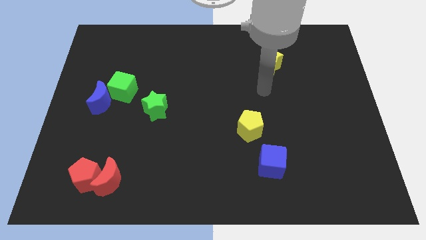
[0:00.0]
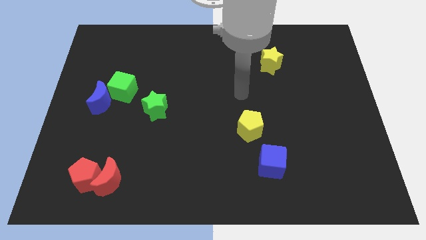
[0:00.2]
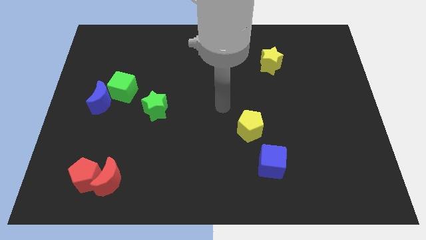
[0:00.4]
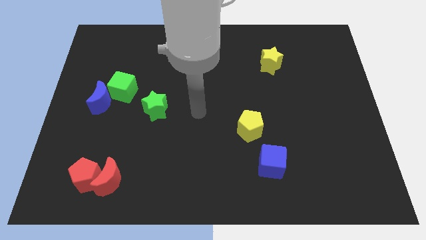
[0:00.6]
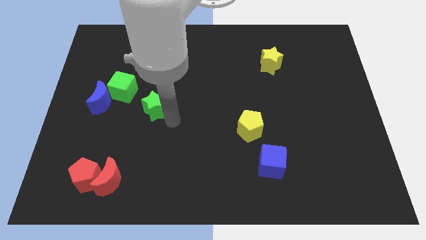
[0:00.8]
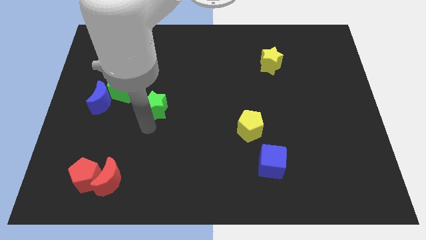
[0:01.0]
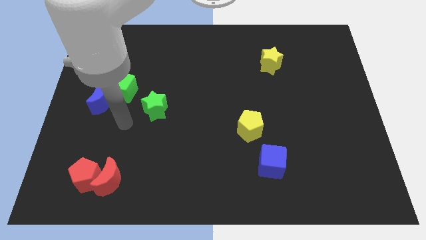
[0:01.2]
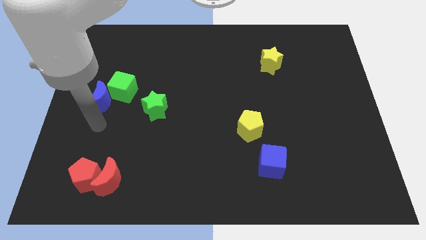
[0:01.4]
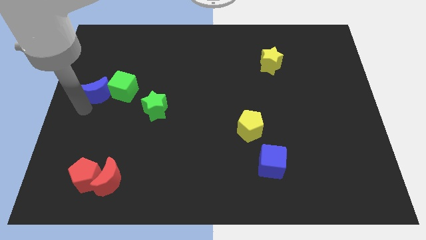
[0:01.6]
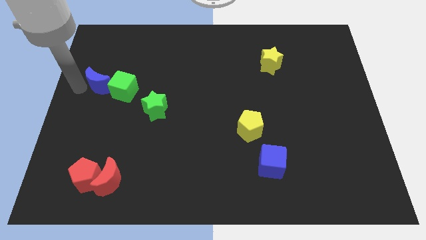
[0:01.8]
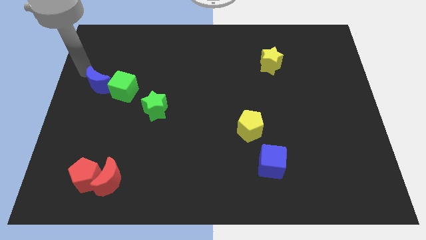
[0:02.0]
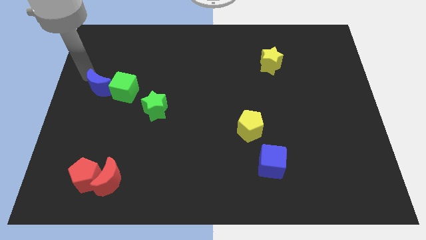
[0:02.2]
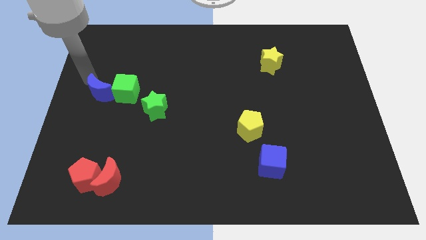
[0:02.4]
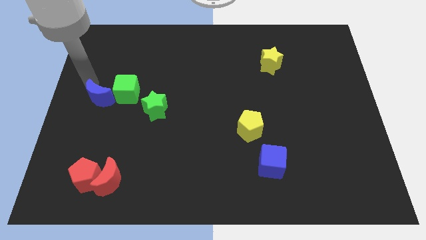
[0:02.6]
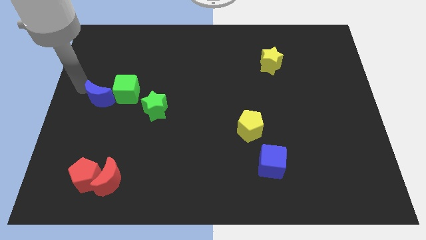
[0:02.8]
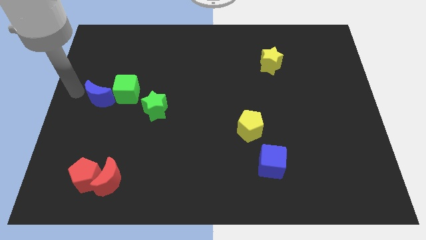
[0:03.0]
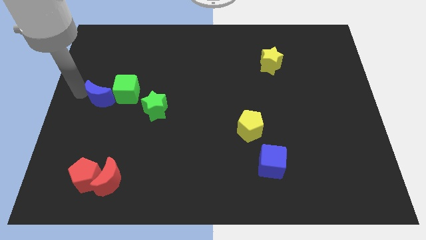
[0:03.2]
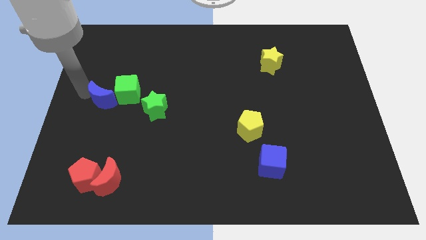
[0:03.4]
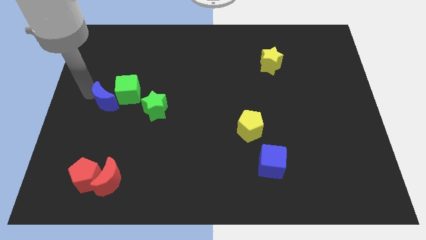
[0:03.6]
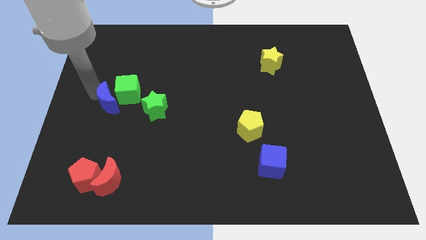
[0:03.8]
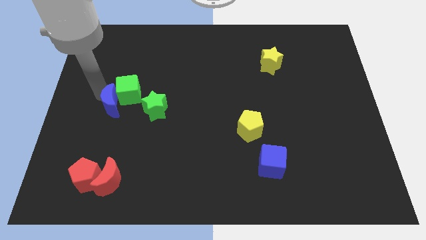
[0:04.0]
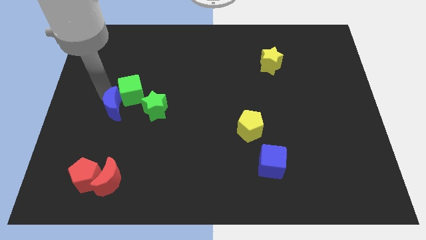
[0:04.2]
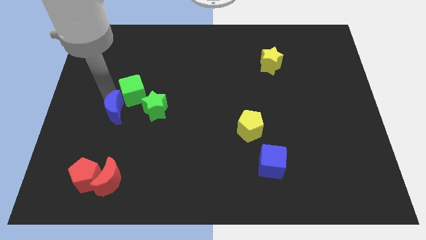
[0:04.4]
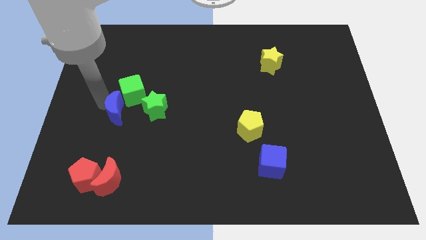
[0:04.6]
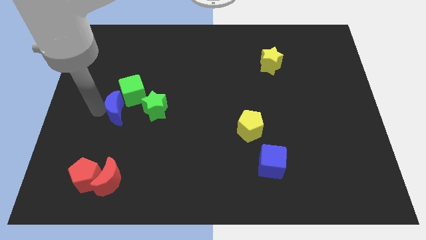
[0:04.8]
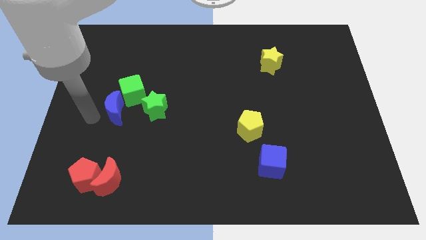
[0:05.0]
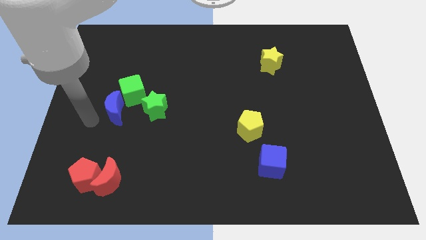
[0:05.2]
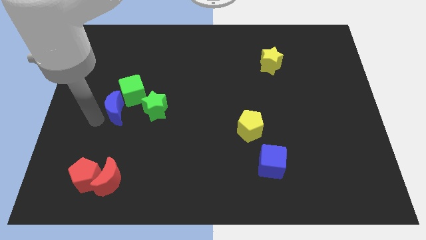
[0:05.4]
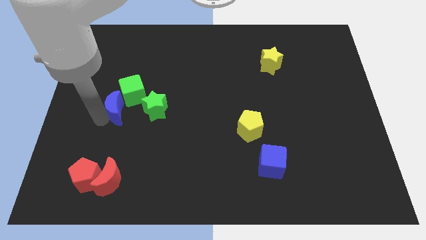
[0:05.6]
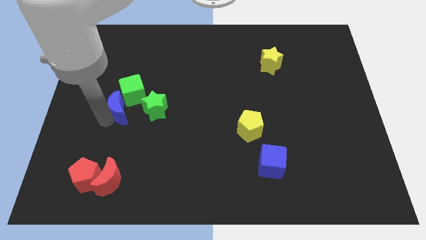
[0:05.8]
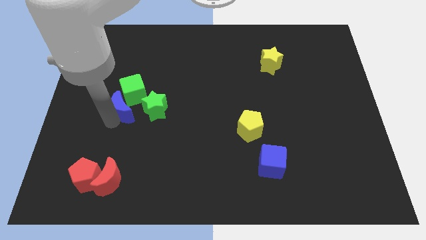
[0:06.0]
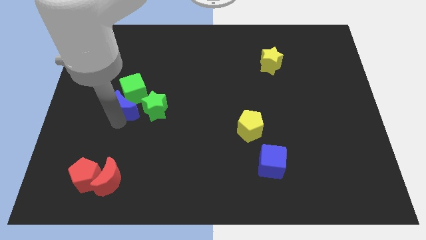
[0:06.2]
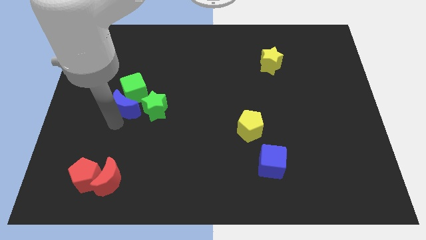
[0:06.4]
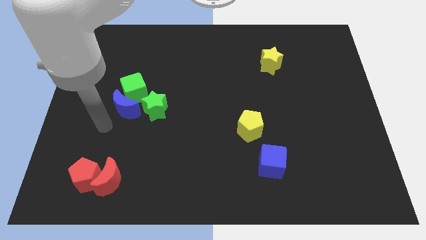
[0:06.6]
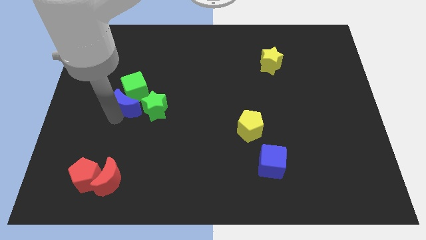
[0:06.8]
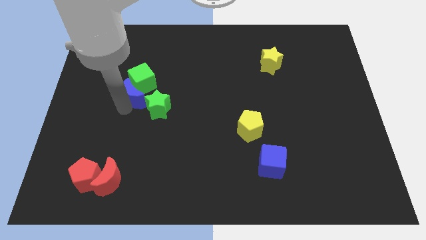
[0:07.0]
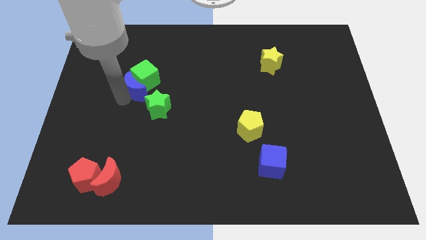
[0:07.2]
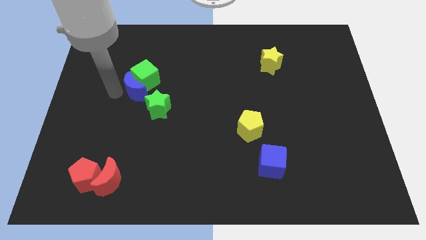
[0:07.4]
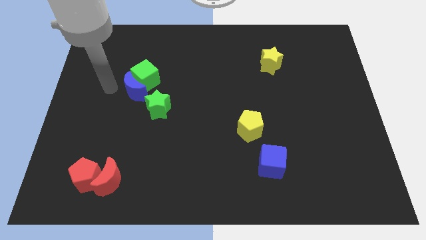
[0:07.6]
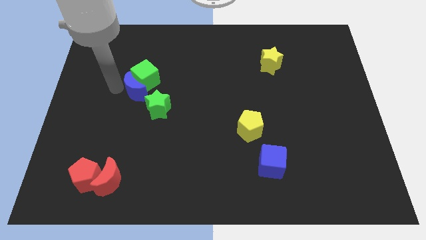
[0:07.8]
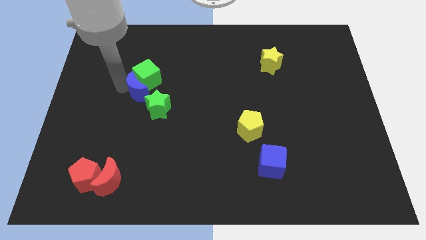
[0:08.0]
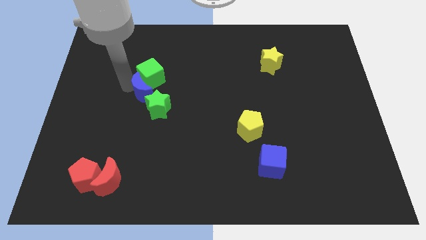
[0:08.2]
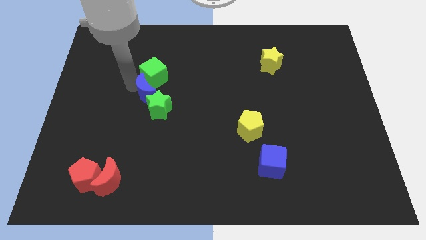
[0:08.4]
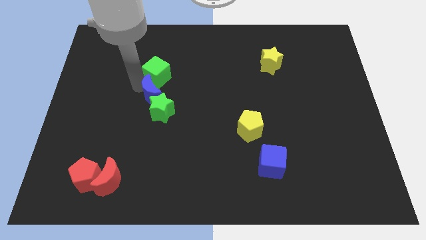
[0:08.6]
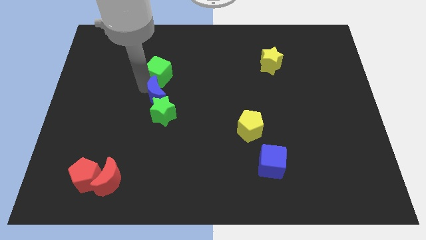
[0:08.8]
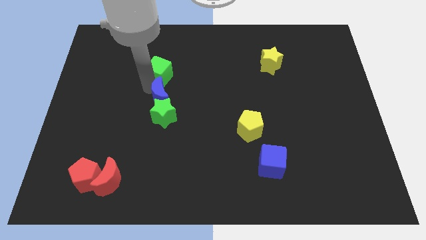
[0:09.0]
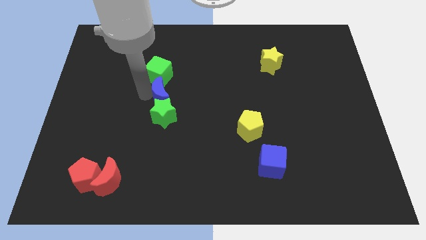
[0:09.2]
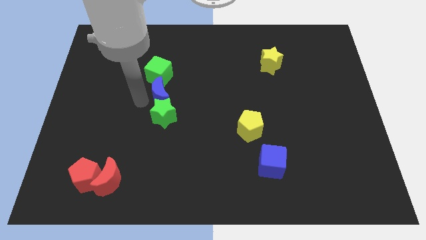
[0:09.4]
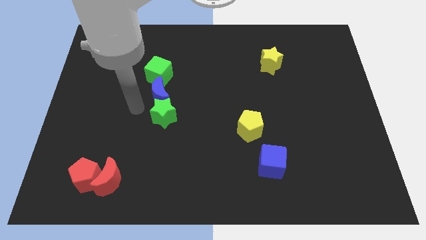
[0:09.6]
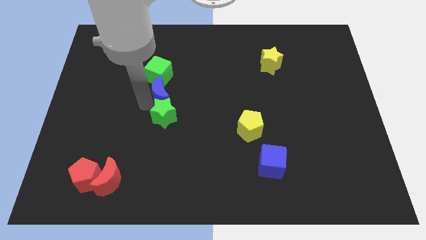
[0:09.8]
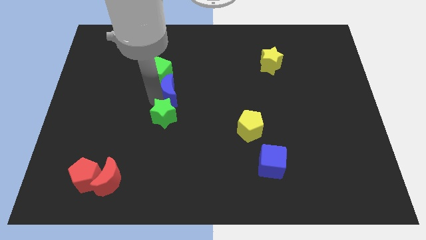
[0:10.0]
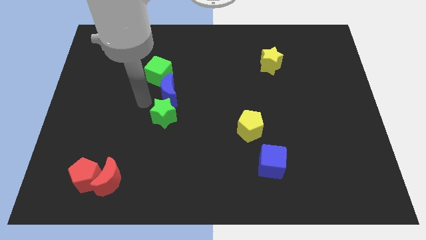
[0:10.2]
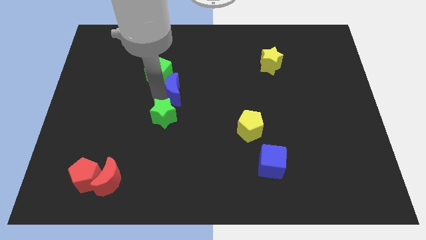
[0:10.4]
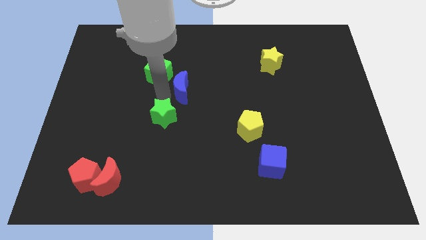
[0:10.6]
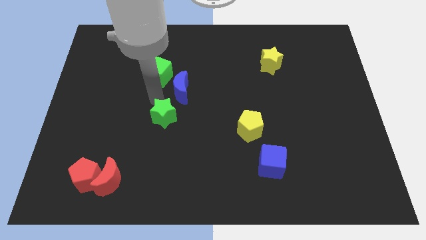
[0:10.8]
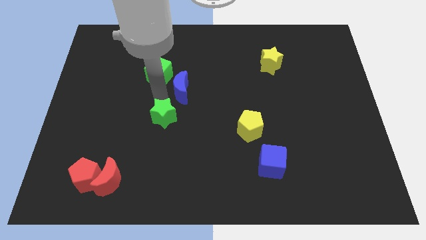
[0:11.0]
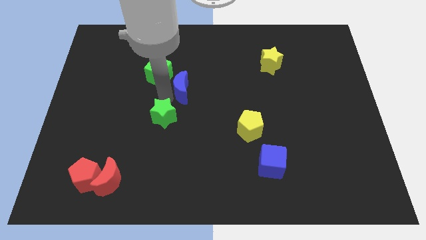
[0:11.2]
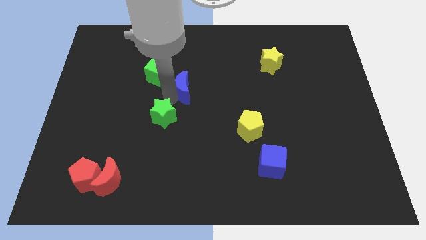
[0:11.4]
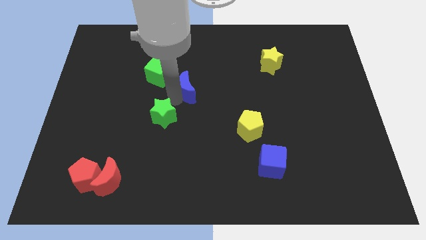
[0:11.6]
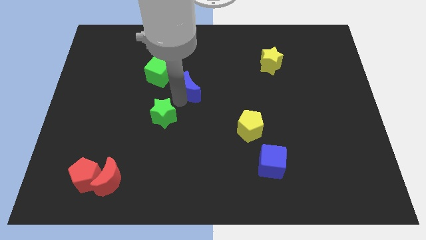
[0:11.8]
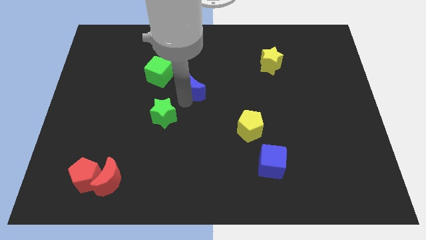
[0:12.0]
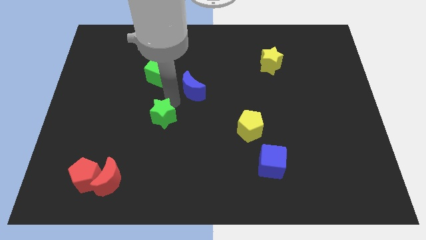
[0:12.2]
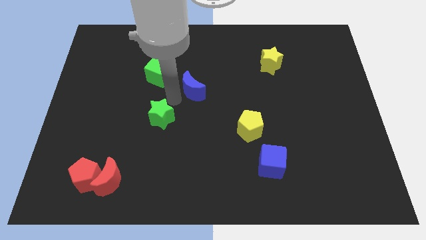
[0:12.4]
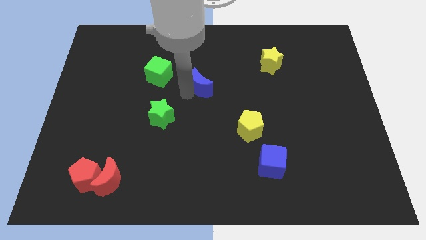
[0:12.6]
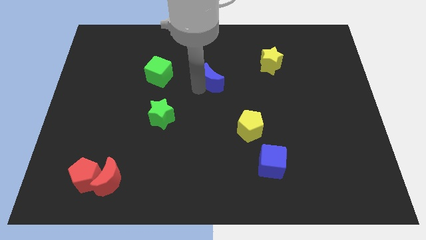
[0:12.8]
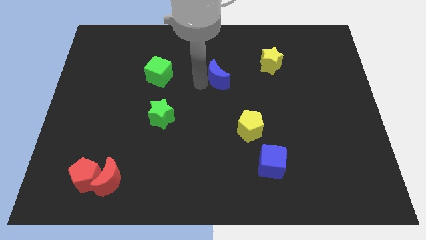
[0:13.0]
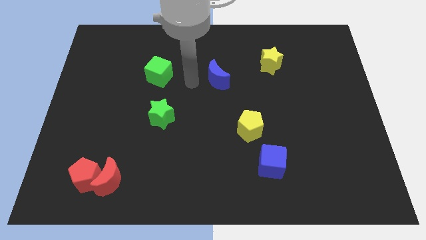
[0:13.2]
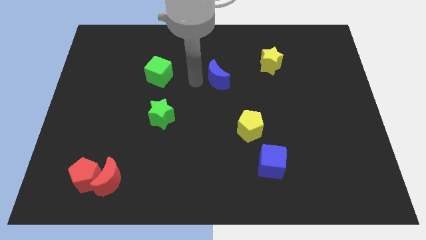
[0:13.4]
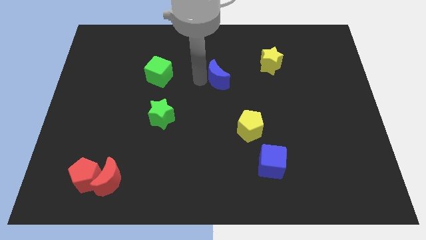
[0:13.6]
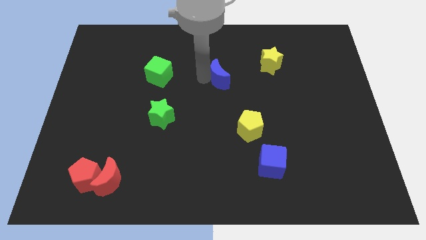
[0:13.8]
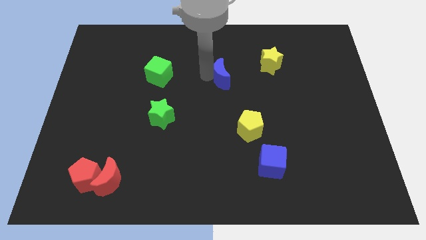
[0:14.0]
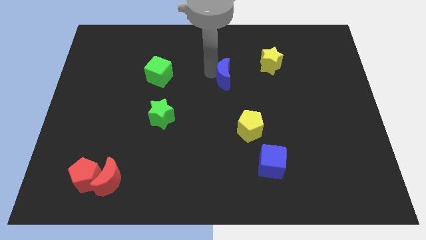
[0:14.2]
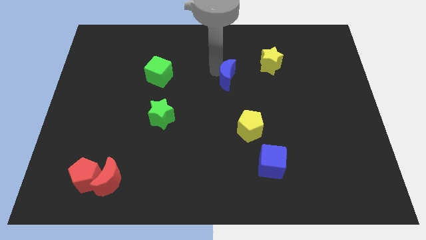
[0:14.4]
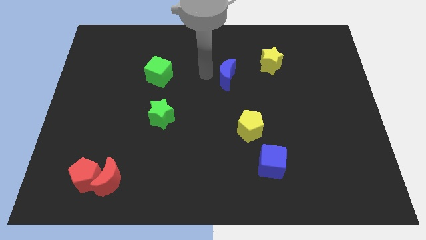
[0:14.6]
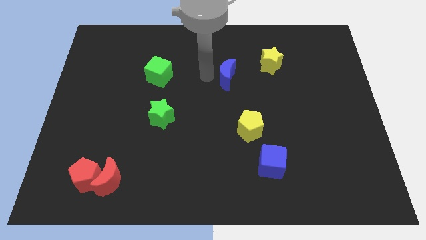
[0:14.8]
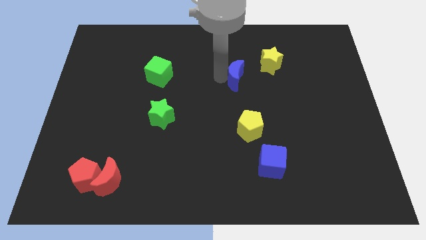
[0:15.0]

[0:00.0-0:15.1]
slide the blue moon diagonally down and to the left of the yellow star
